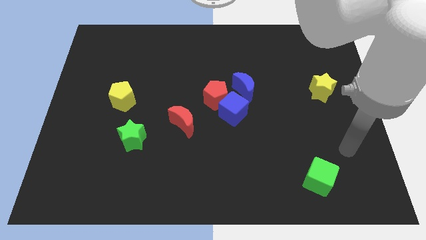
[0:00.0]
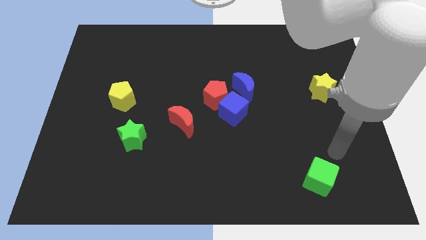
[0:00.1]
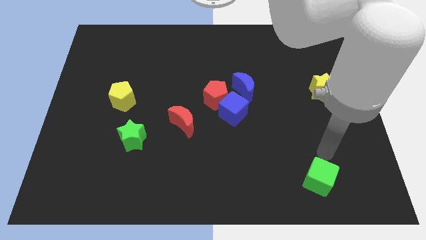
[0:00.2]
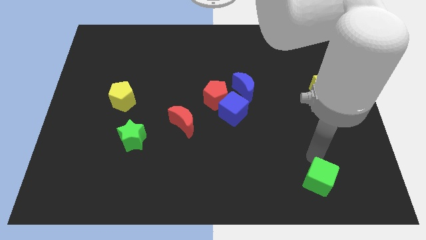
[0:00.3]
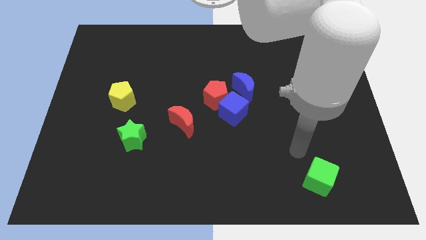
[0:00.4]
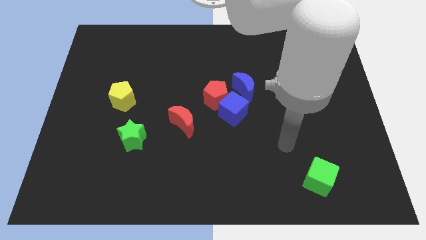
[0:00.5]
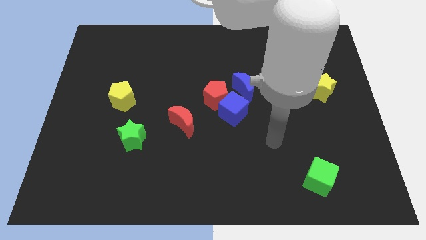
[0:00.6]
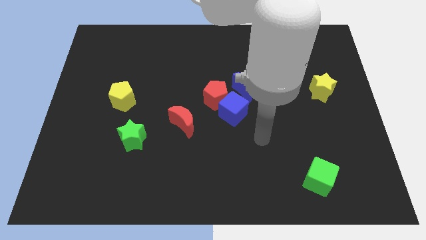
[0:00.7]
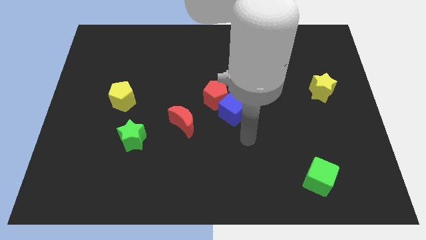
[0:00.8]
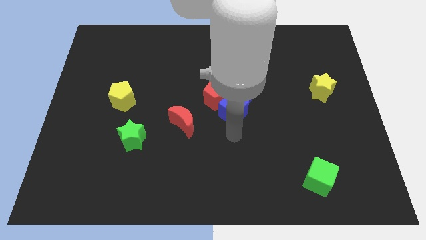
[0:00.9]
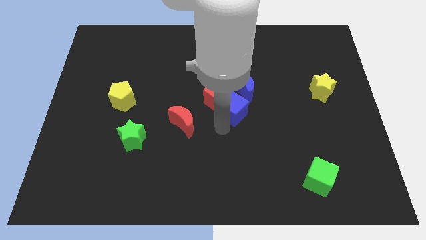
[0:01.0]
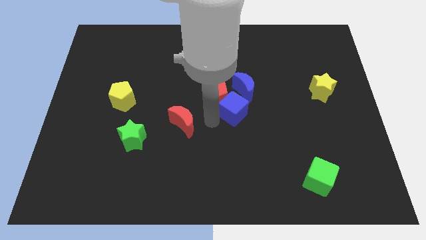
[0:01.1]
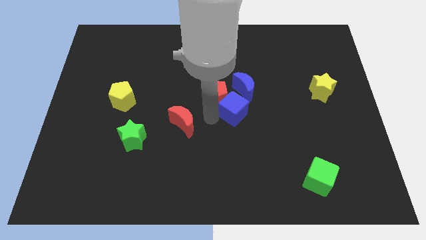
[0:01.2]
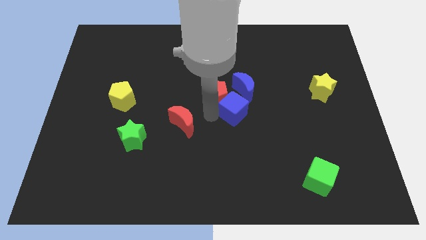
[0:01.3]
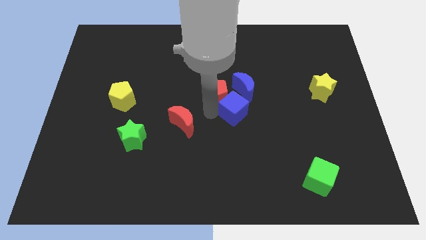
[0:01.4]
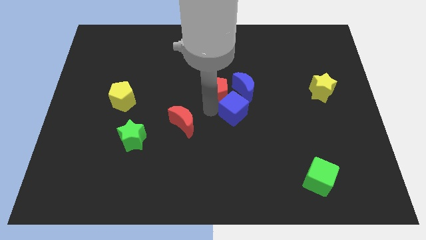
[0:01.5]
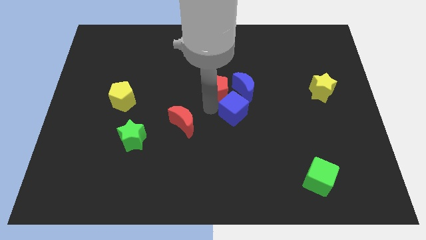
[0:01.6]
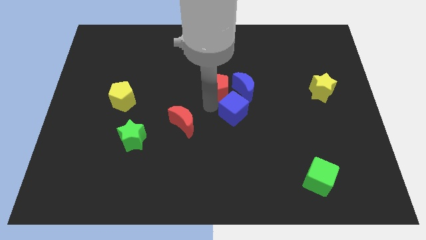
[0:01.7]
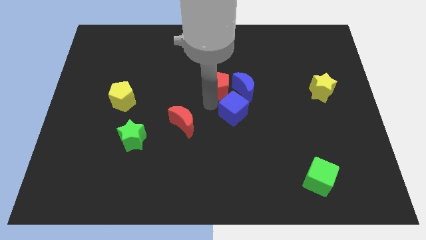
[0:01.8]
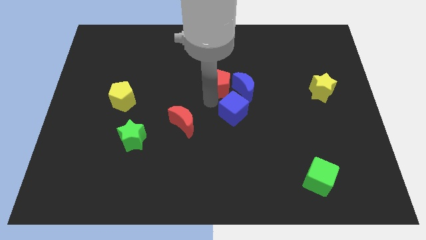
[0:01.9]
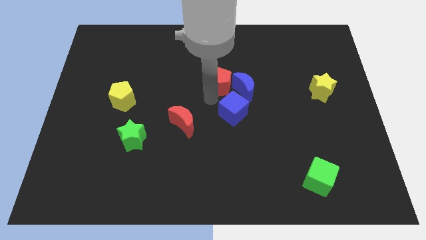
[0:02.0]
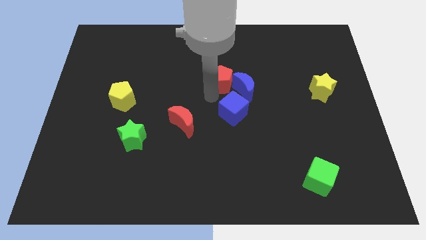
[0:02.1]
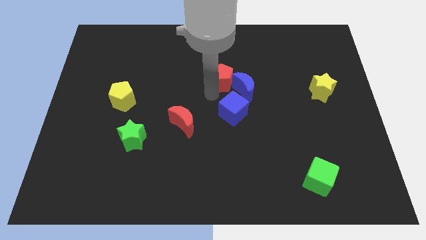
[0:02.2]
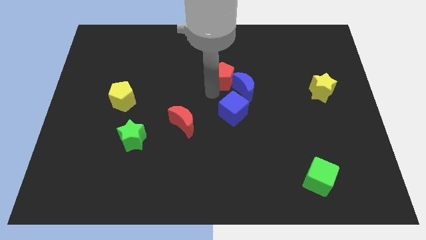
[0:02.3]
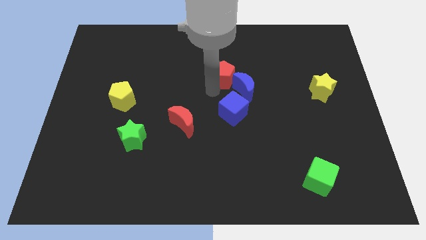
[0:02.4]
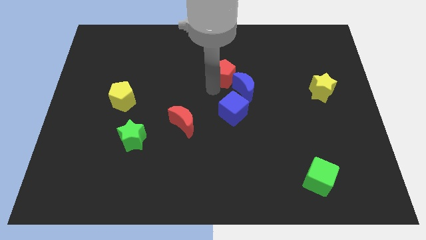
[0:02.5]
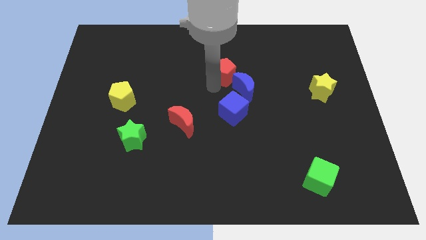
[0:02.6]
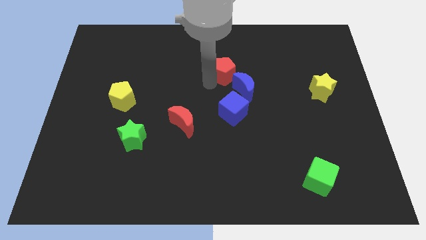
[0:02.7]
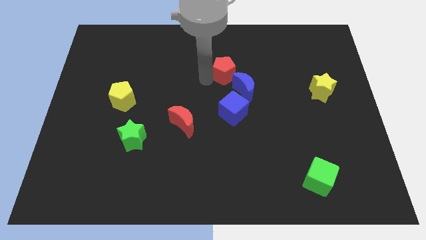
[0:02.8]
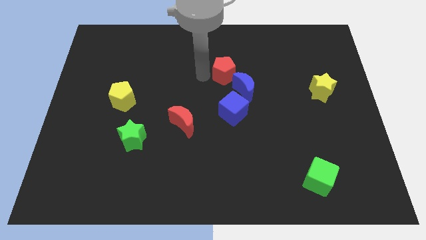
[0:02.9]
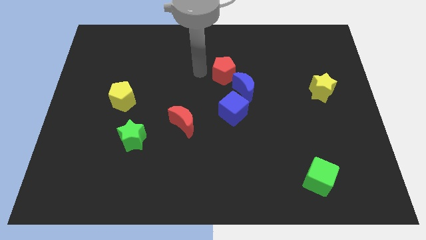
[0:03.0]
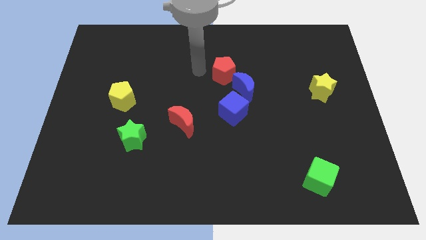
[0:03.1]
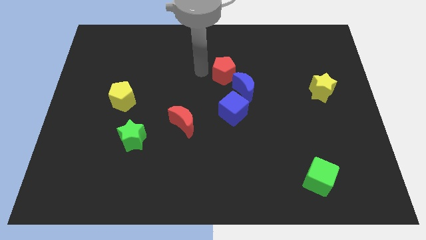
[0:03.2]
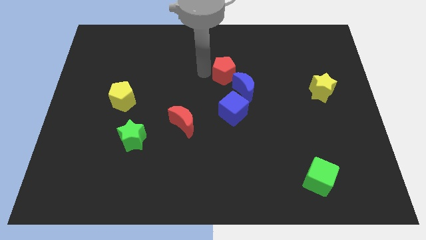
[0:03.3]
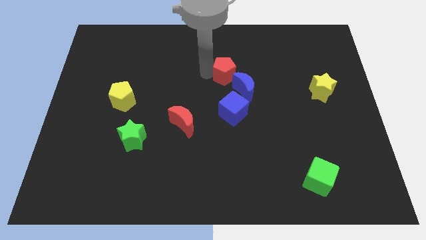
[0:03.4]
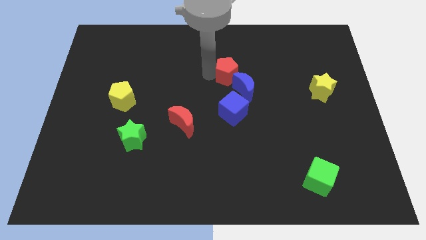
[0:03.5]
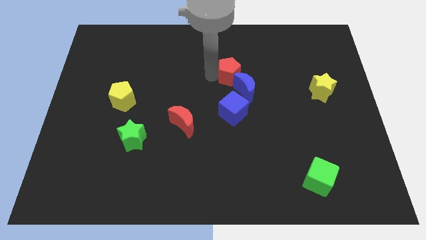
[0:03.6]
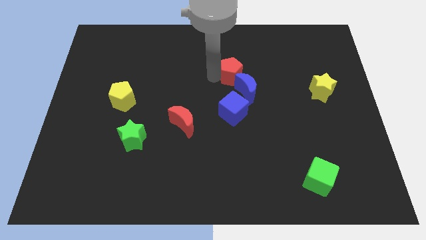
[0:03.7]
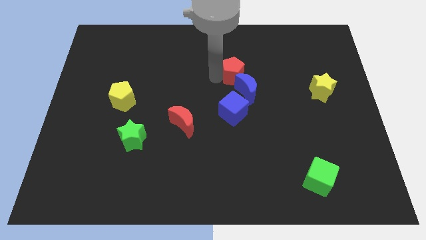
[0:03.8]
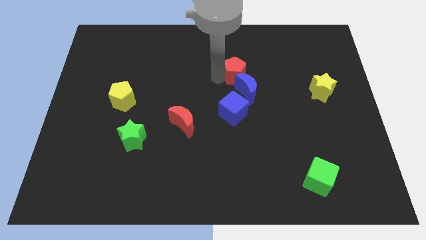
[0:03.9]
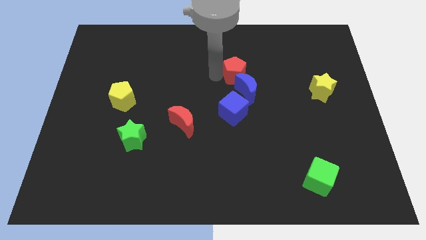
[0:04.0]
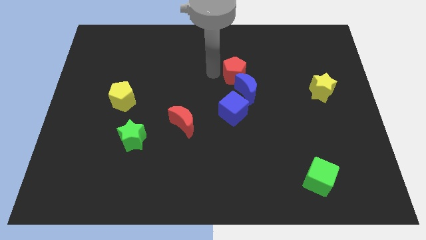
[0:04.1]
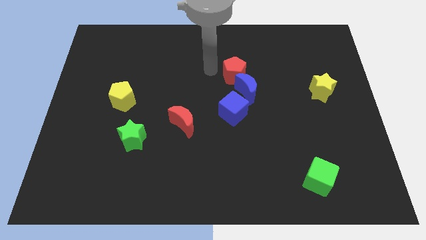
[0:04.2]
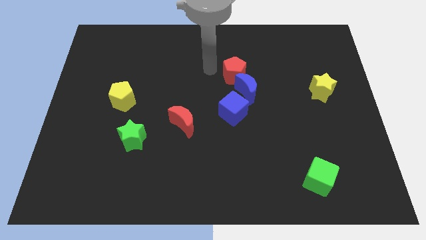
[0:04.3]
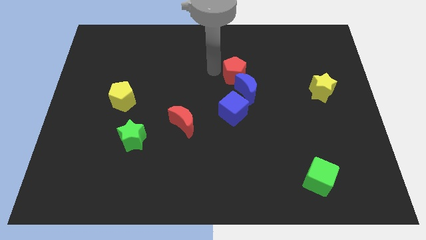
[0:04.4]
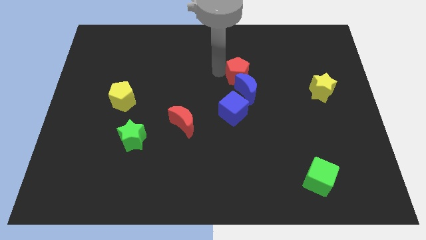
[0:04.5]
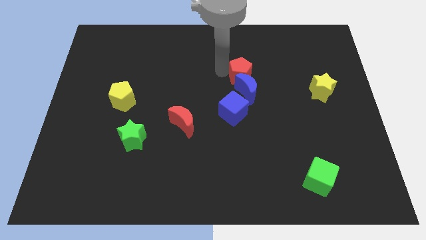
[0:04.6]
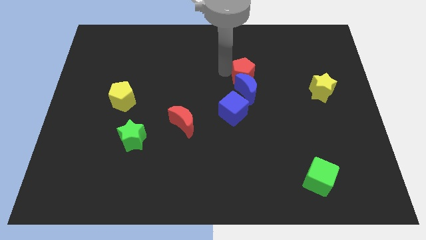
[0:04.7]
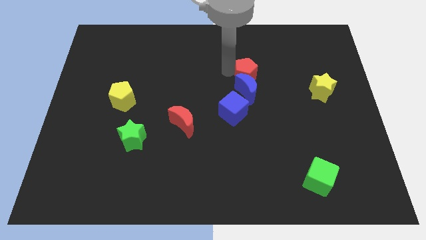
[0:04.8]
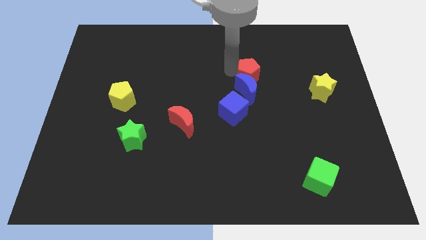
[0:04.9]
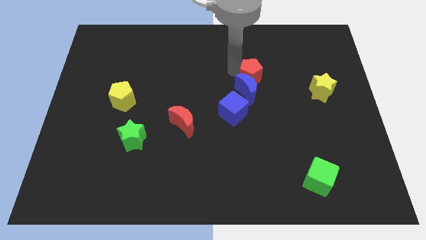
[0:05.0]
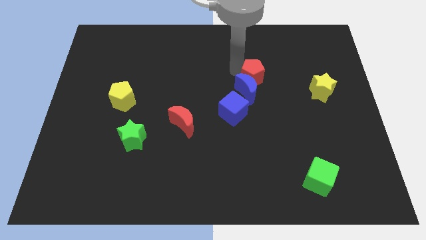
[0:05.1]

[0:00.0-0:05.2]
slightly push the red pentagon right

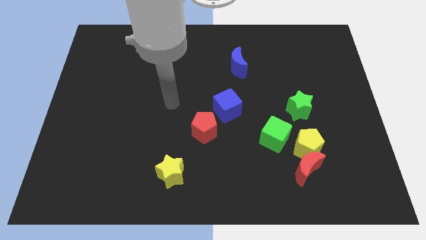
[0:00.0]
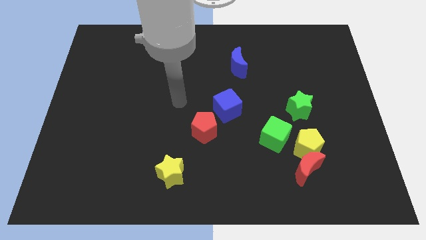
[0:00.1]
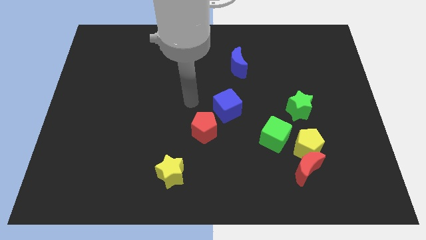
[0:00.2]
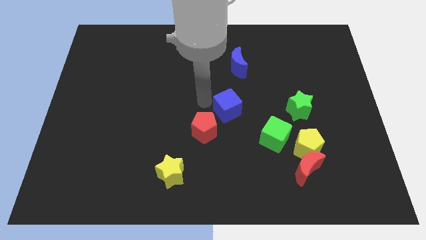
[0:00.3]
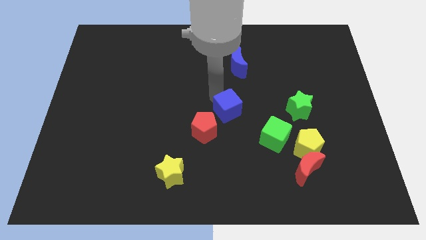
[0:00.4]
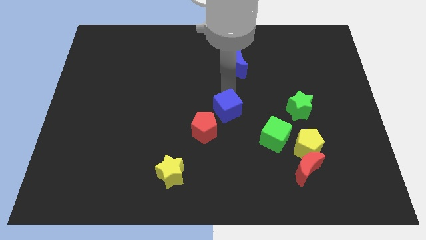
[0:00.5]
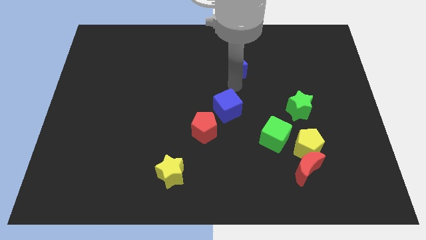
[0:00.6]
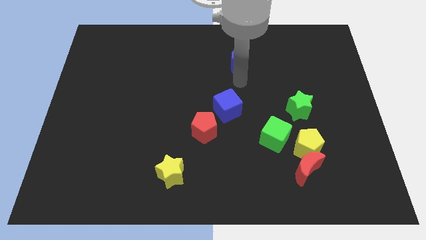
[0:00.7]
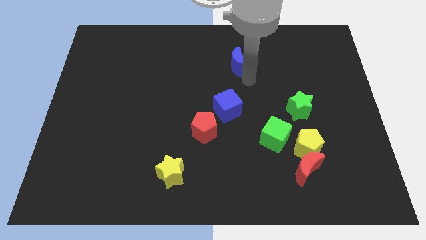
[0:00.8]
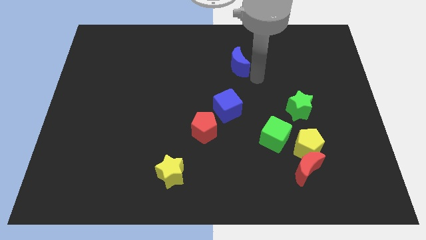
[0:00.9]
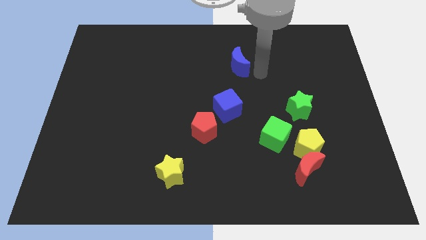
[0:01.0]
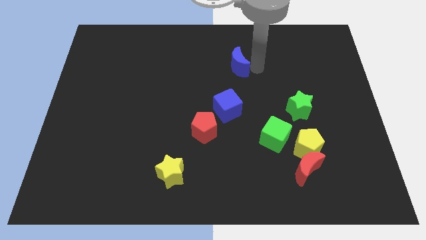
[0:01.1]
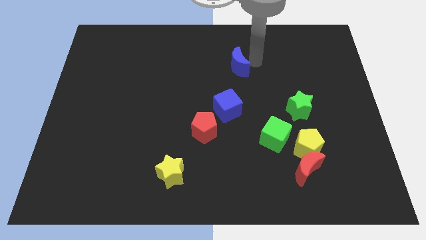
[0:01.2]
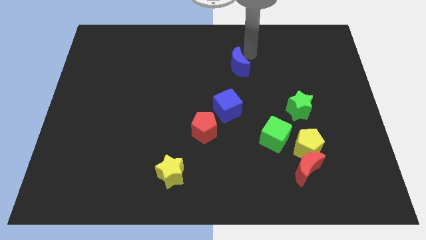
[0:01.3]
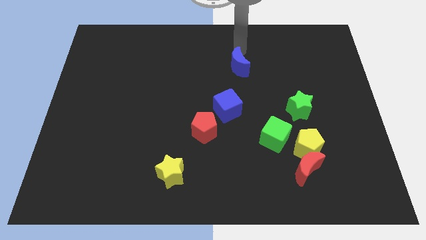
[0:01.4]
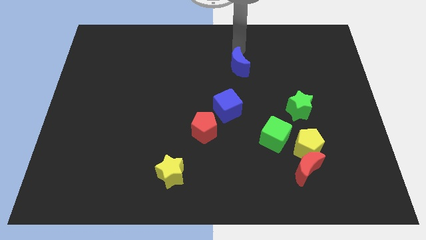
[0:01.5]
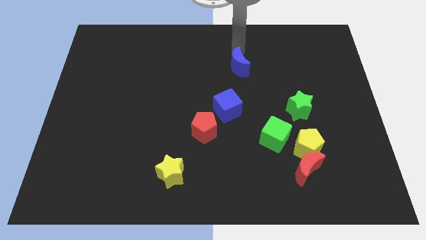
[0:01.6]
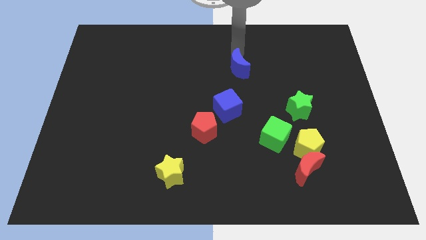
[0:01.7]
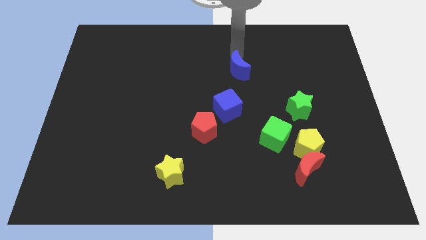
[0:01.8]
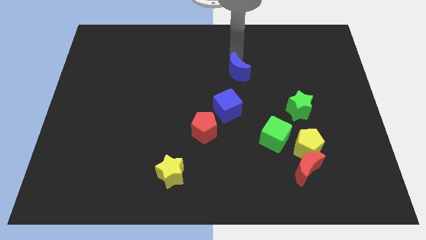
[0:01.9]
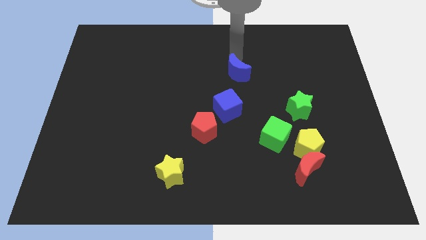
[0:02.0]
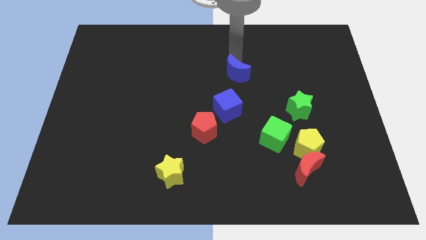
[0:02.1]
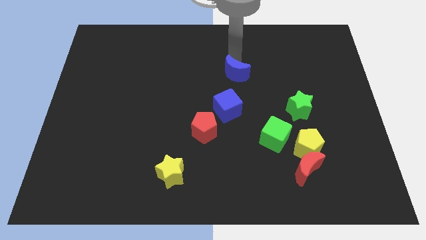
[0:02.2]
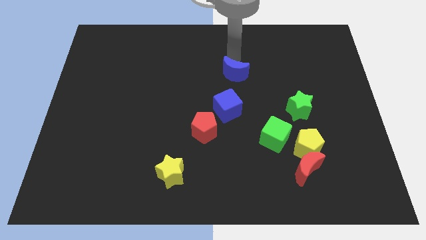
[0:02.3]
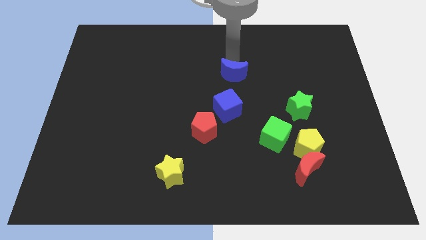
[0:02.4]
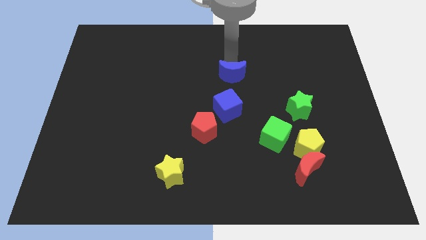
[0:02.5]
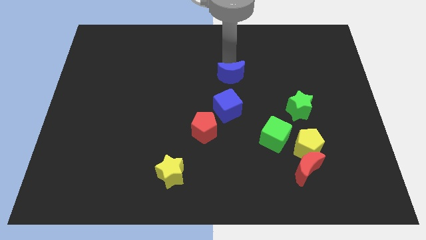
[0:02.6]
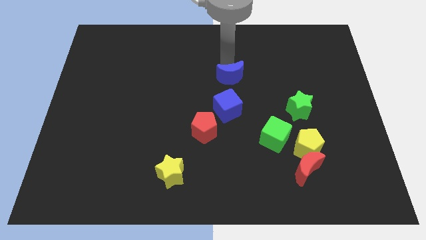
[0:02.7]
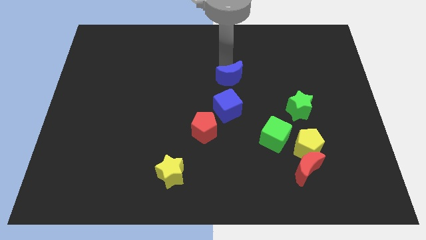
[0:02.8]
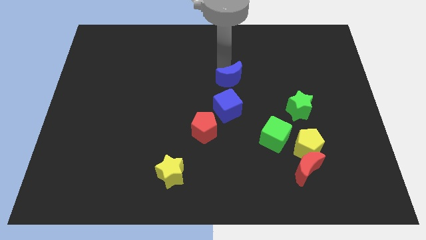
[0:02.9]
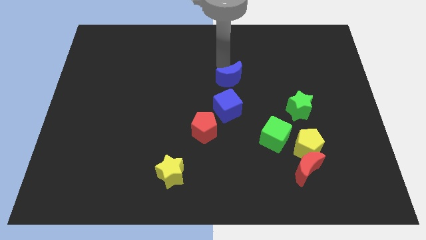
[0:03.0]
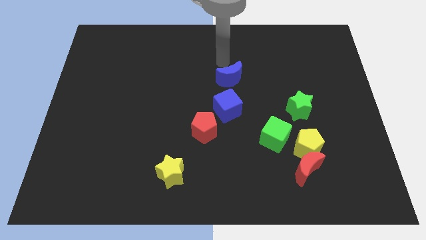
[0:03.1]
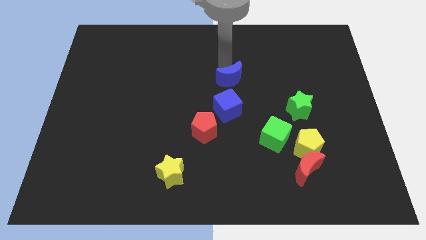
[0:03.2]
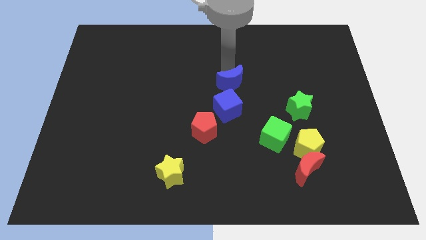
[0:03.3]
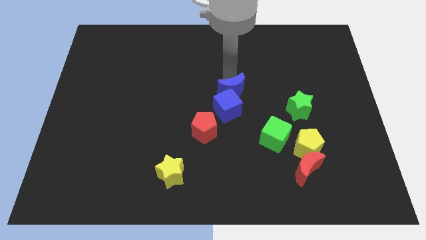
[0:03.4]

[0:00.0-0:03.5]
move the blue moon down somewhat
